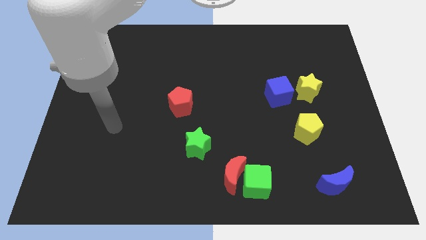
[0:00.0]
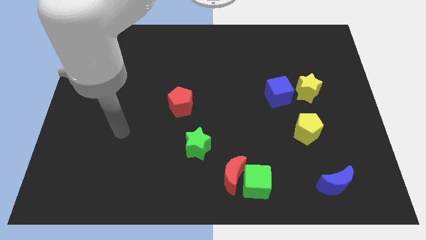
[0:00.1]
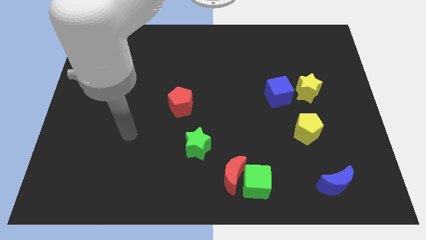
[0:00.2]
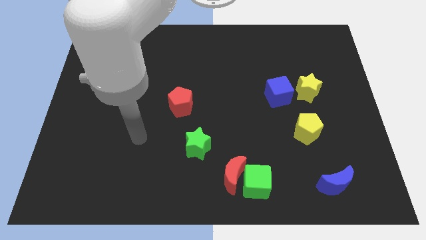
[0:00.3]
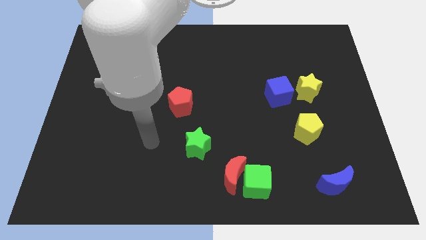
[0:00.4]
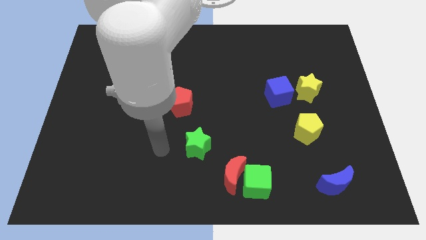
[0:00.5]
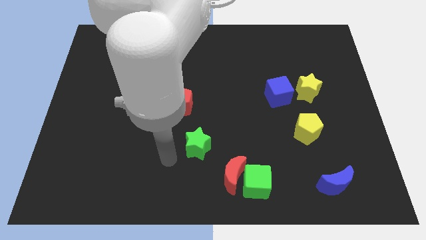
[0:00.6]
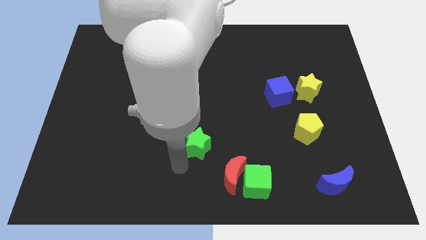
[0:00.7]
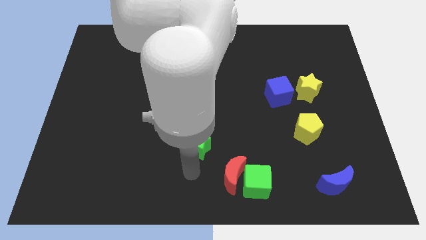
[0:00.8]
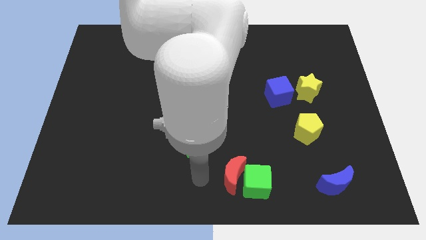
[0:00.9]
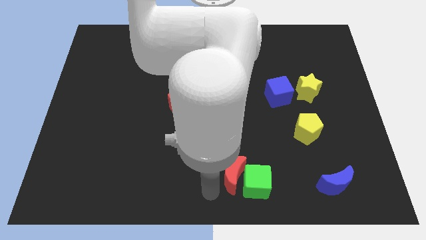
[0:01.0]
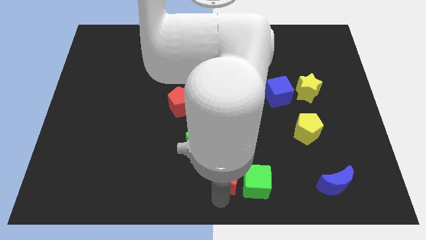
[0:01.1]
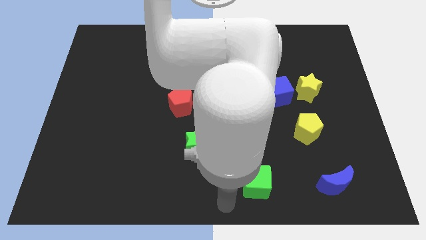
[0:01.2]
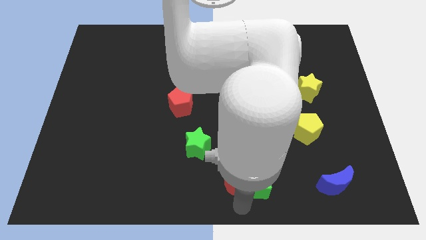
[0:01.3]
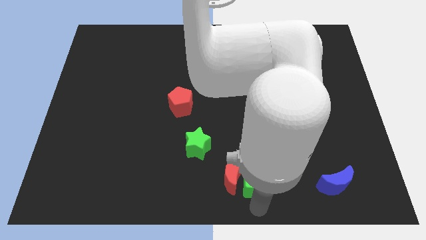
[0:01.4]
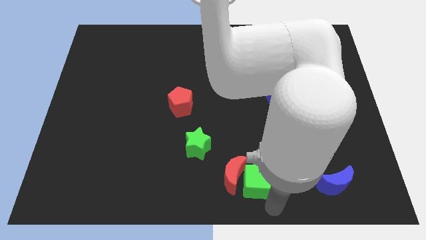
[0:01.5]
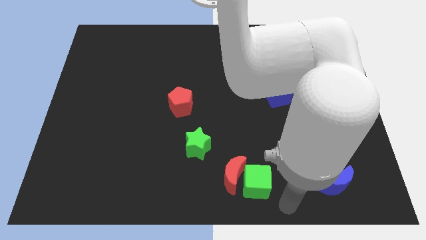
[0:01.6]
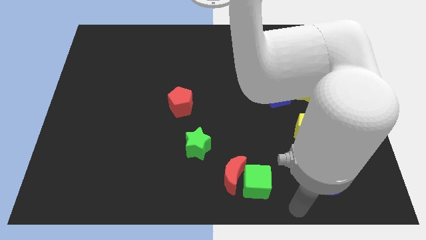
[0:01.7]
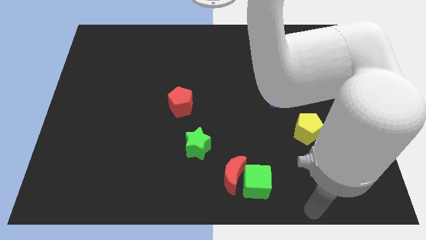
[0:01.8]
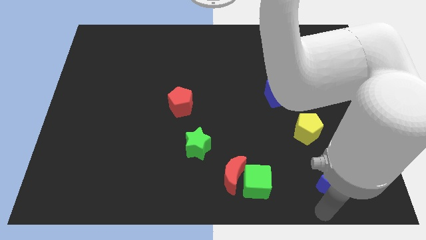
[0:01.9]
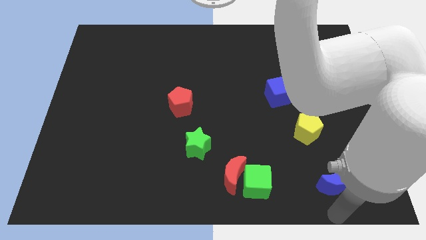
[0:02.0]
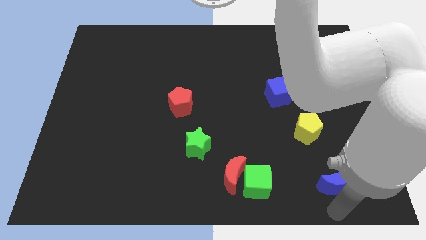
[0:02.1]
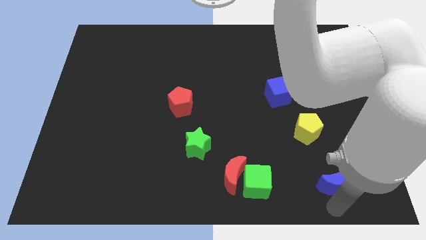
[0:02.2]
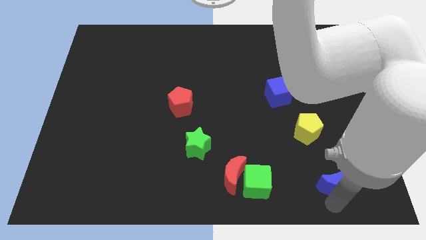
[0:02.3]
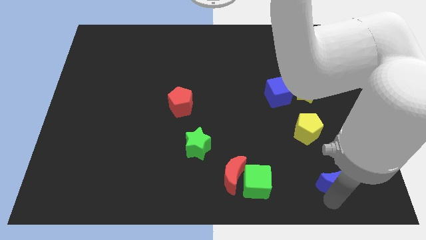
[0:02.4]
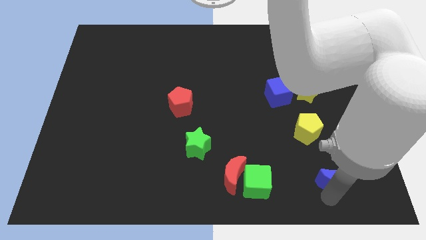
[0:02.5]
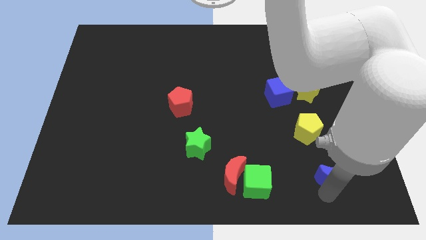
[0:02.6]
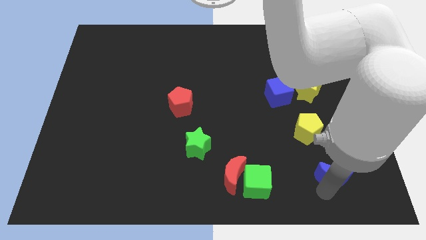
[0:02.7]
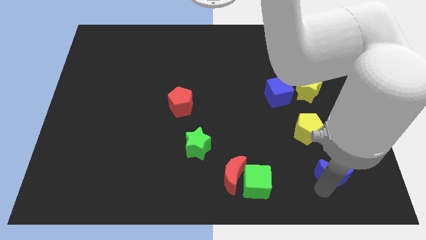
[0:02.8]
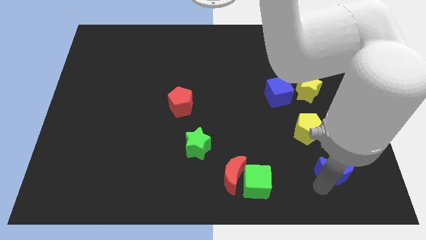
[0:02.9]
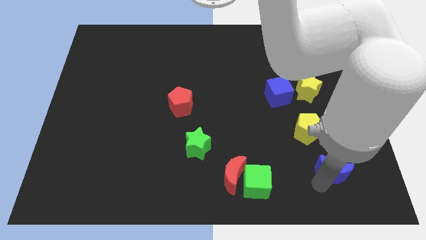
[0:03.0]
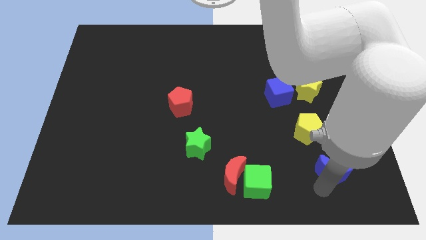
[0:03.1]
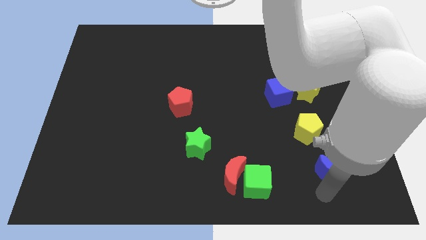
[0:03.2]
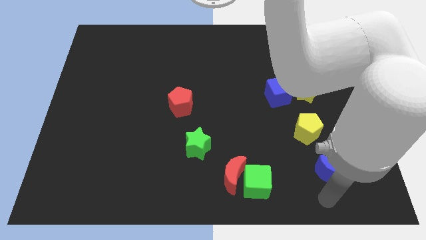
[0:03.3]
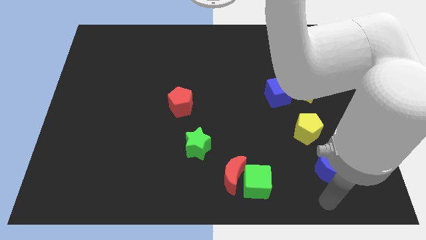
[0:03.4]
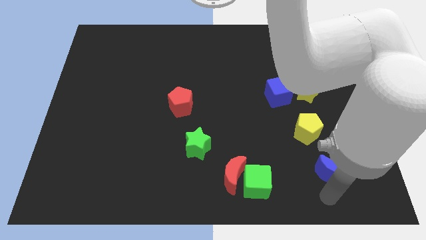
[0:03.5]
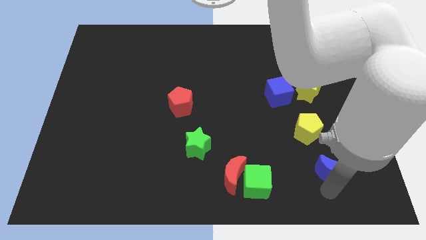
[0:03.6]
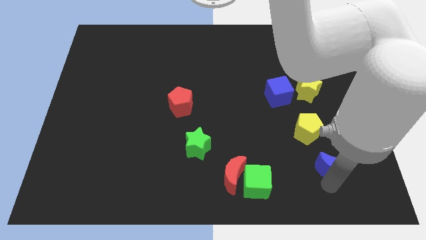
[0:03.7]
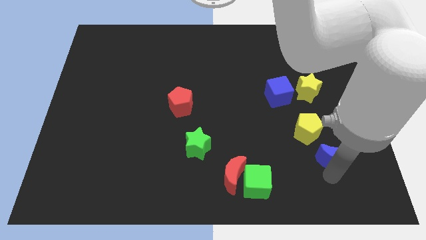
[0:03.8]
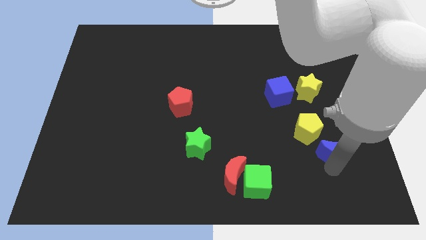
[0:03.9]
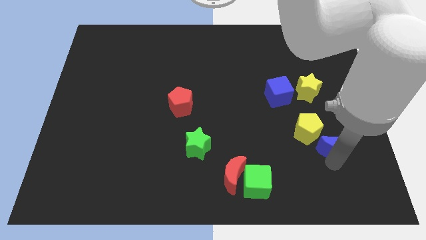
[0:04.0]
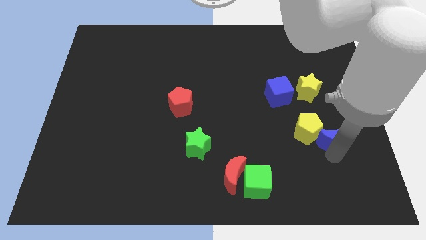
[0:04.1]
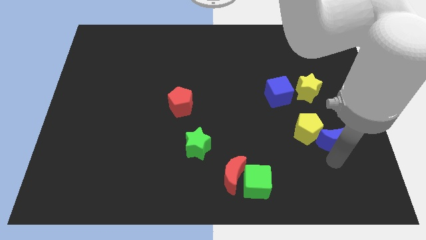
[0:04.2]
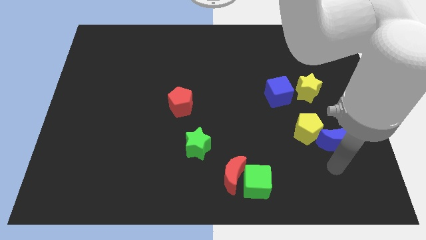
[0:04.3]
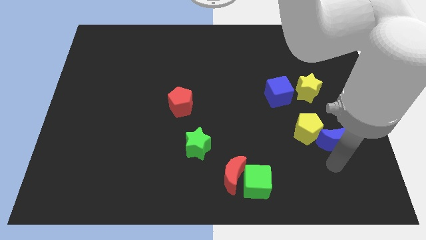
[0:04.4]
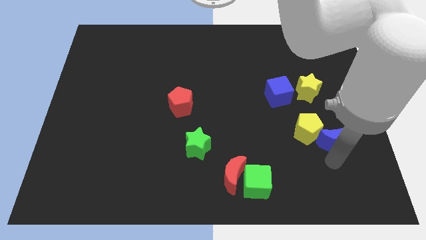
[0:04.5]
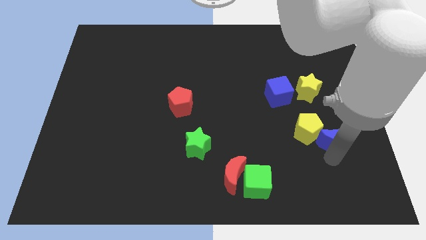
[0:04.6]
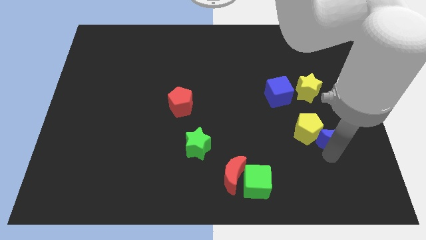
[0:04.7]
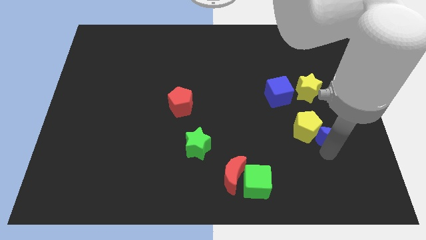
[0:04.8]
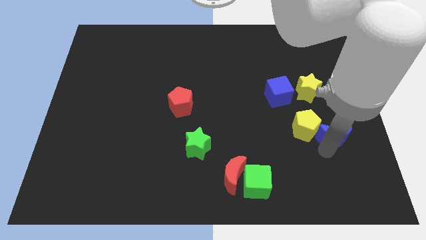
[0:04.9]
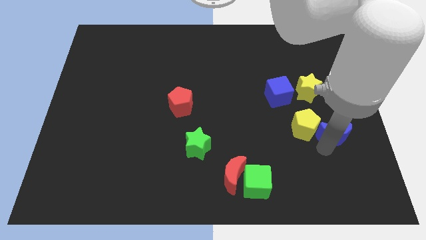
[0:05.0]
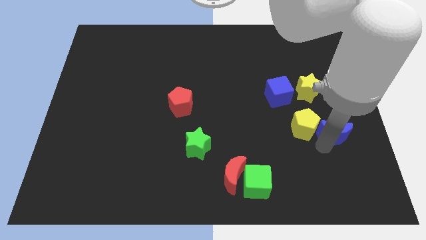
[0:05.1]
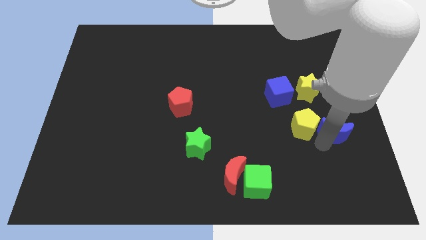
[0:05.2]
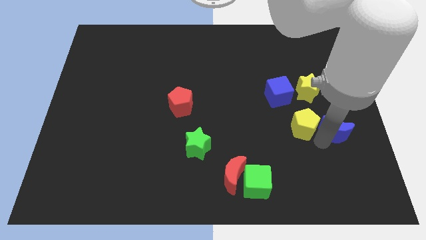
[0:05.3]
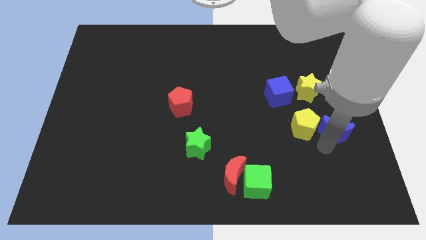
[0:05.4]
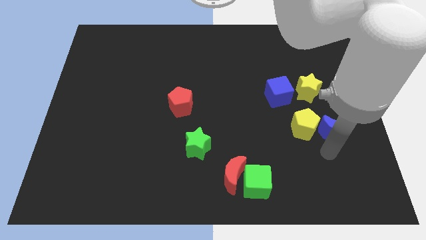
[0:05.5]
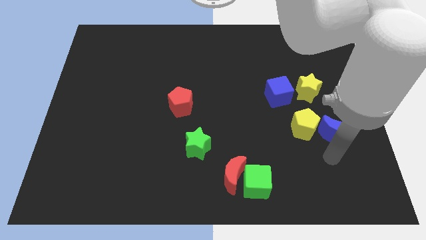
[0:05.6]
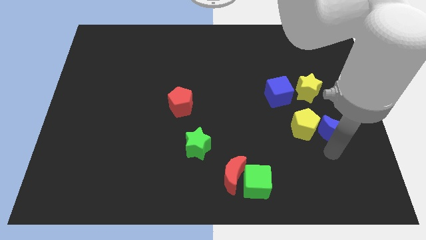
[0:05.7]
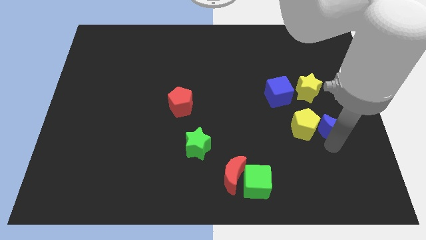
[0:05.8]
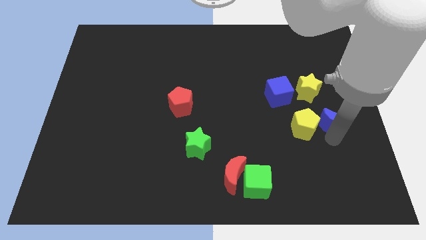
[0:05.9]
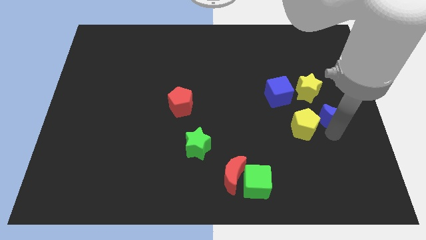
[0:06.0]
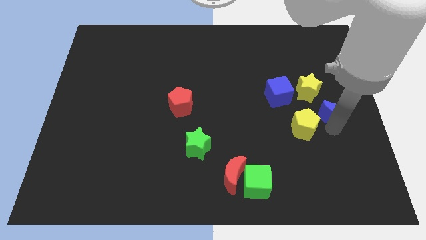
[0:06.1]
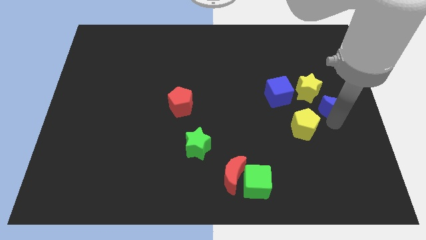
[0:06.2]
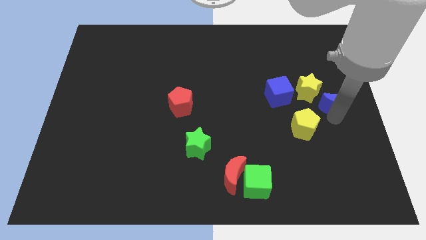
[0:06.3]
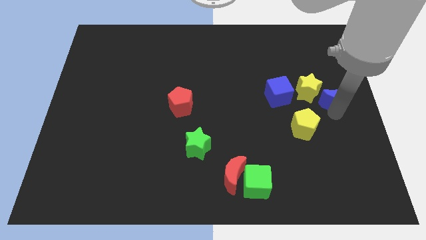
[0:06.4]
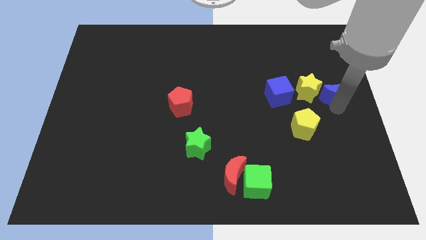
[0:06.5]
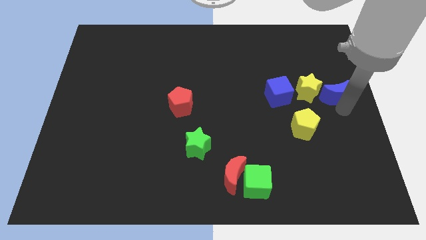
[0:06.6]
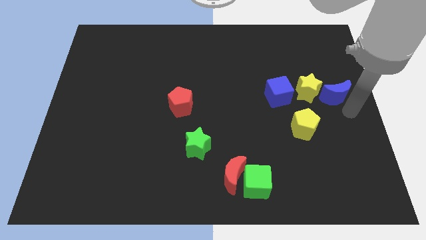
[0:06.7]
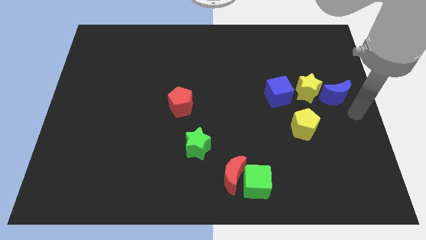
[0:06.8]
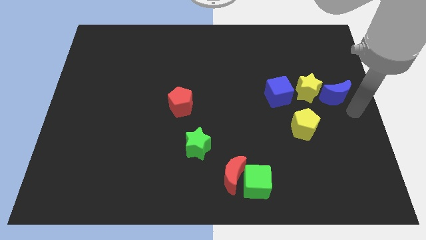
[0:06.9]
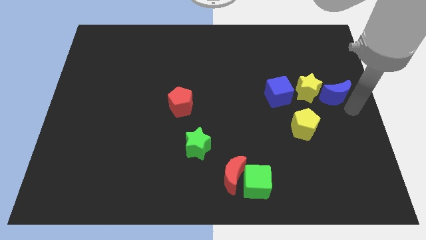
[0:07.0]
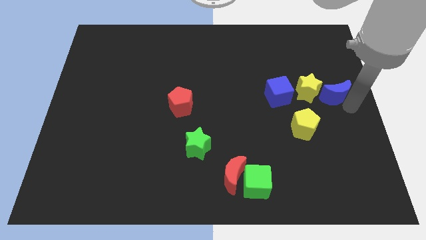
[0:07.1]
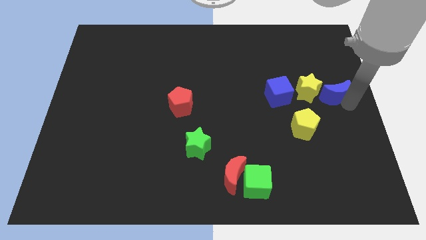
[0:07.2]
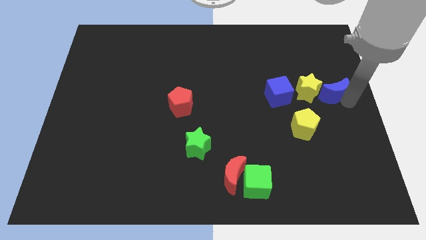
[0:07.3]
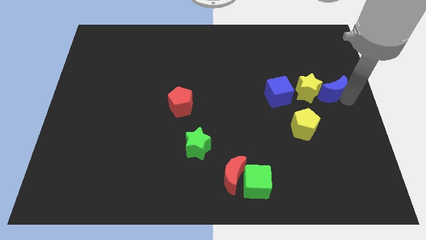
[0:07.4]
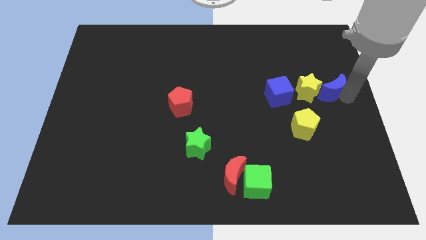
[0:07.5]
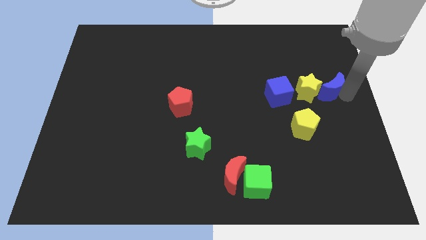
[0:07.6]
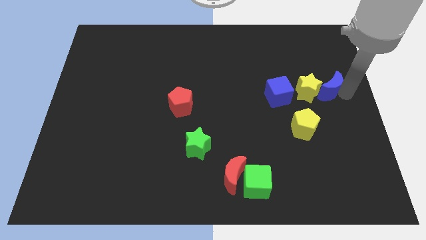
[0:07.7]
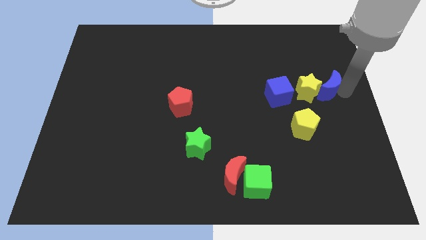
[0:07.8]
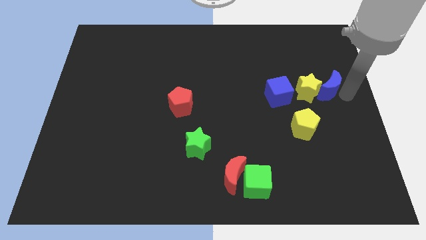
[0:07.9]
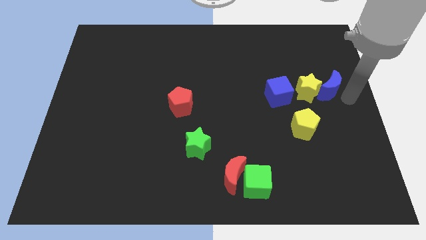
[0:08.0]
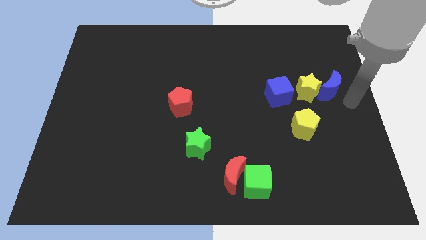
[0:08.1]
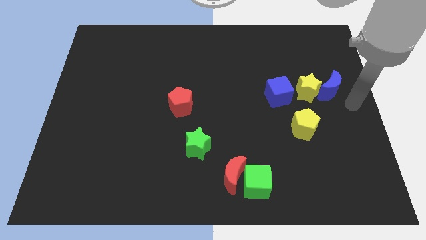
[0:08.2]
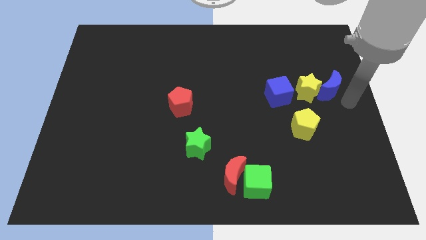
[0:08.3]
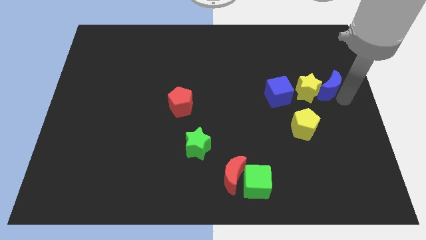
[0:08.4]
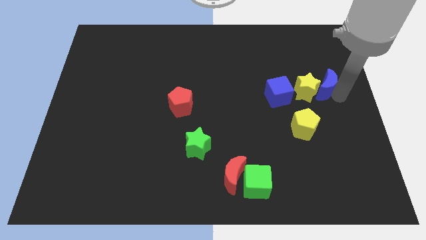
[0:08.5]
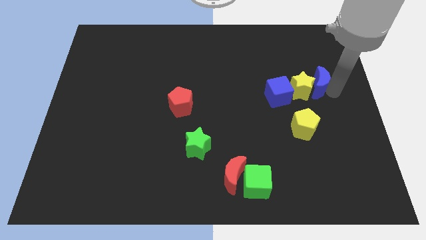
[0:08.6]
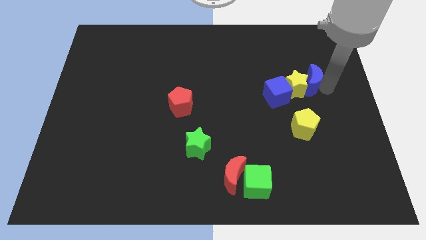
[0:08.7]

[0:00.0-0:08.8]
put the blue moon to the top right of the blue cube
